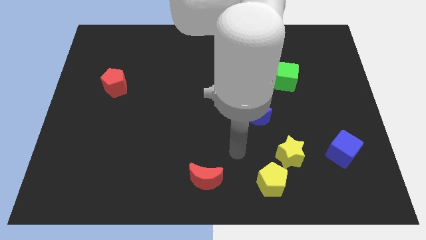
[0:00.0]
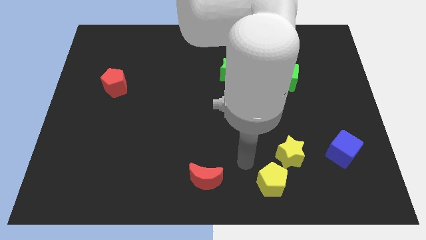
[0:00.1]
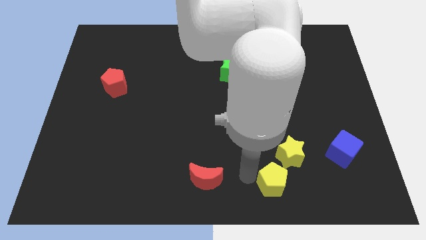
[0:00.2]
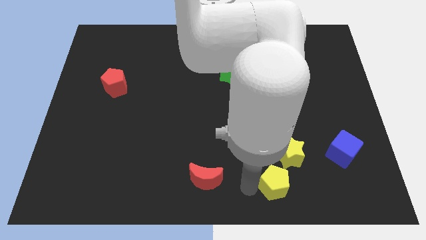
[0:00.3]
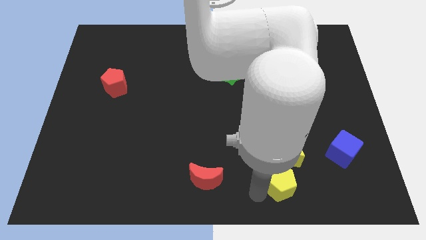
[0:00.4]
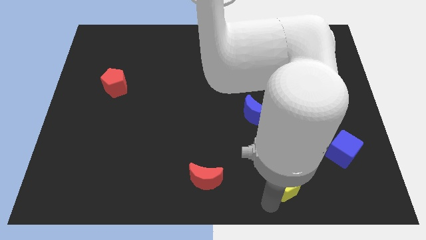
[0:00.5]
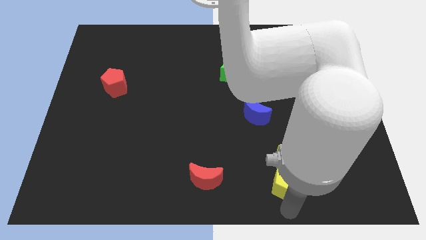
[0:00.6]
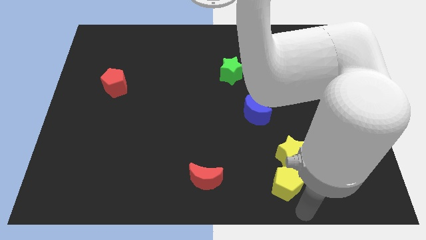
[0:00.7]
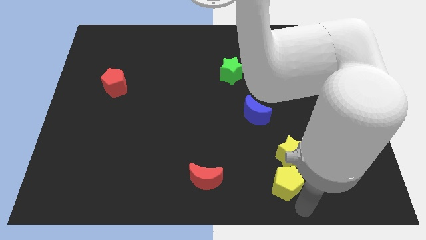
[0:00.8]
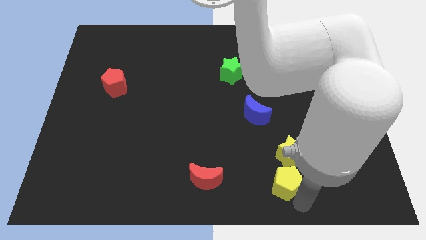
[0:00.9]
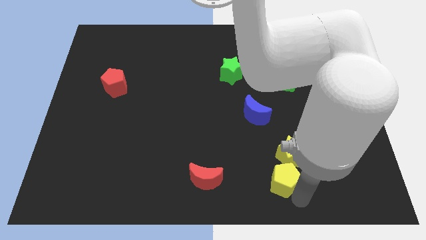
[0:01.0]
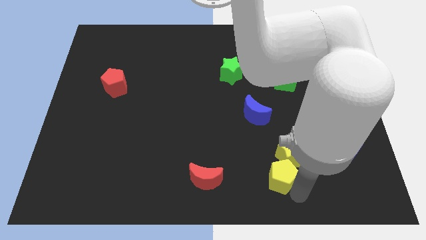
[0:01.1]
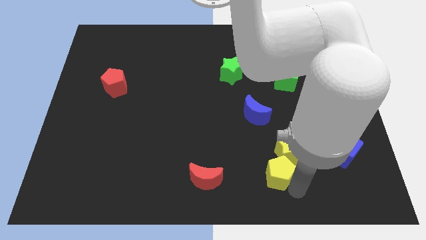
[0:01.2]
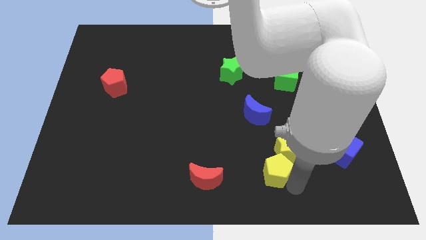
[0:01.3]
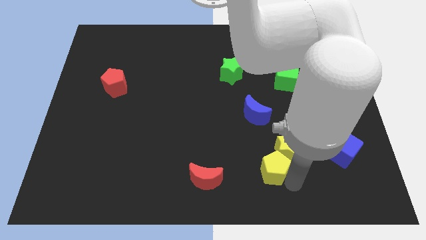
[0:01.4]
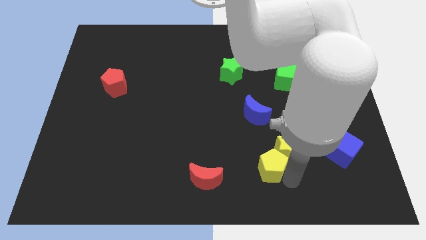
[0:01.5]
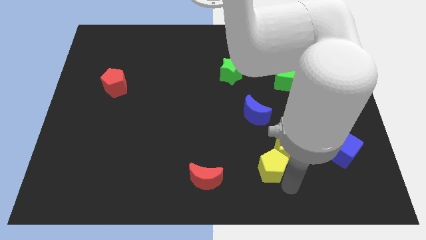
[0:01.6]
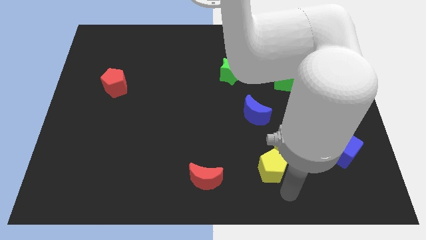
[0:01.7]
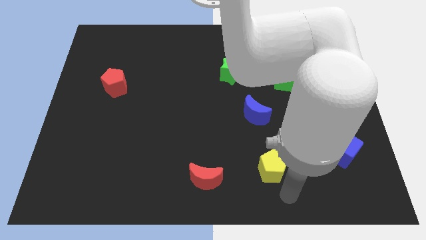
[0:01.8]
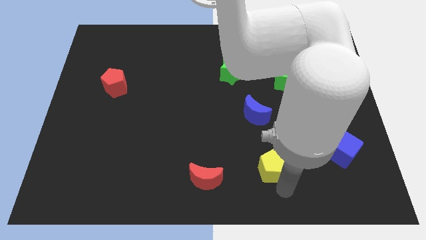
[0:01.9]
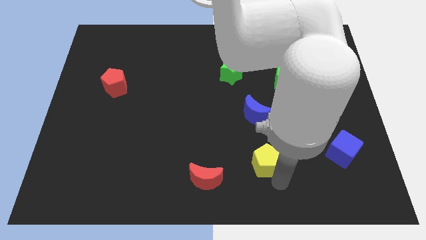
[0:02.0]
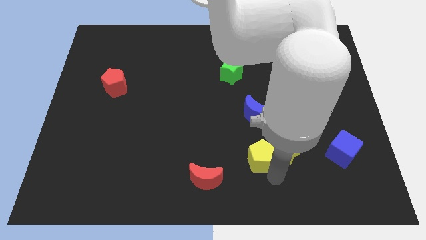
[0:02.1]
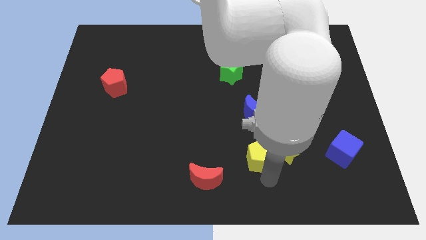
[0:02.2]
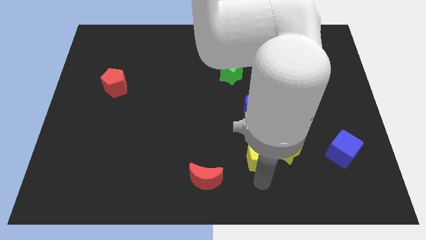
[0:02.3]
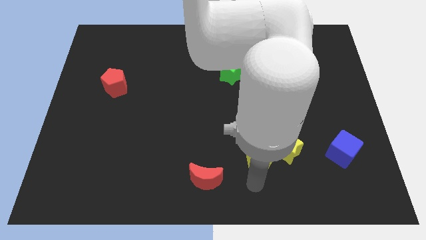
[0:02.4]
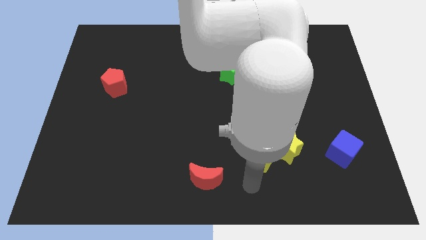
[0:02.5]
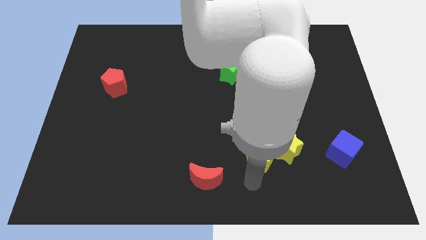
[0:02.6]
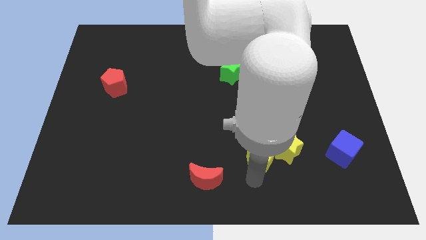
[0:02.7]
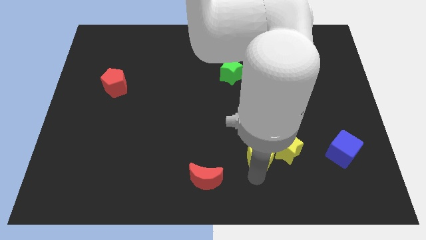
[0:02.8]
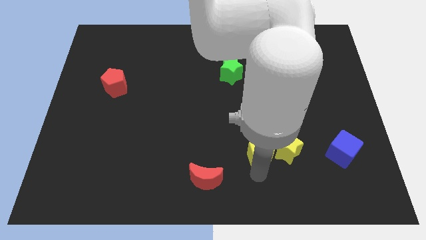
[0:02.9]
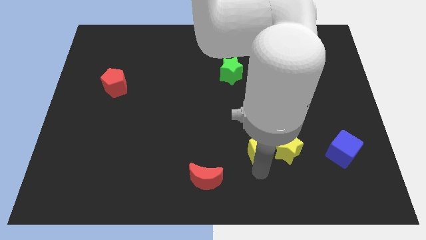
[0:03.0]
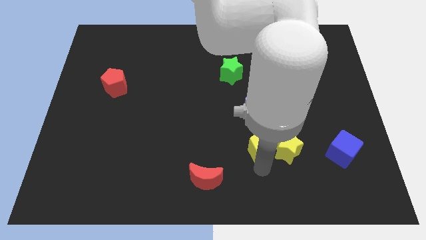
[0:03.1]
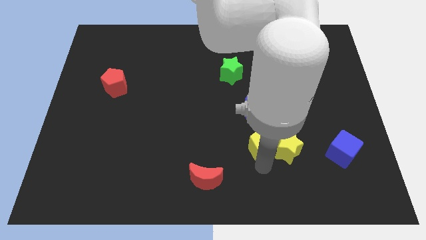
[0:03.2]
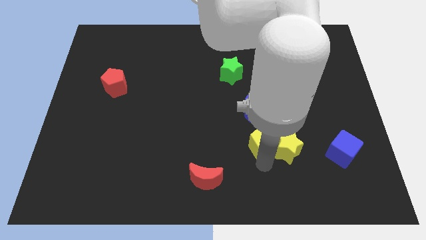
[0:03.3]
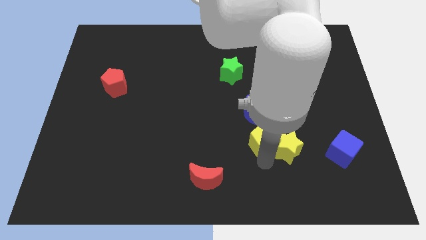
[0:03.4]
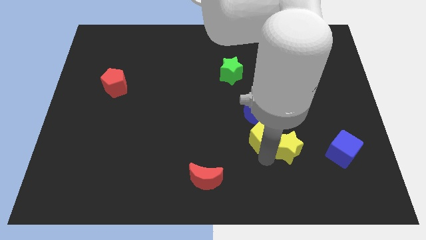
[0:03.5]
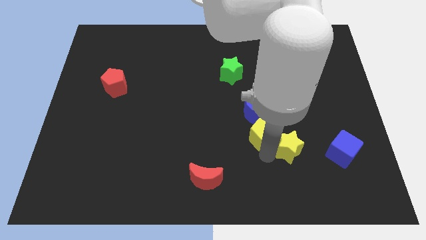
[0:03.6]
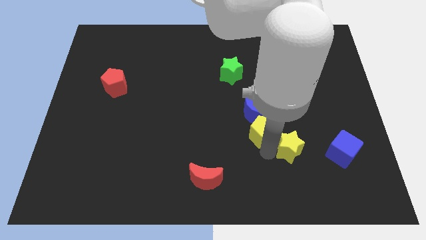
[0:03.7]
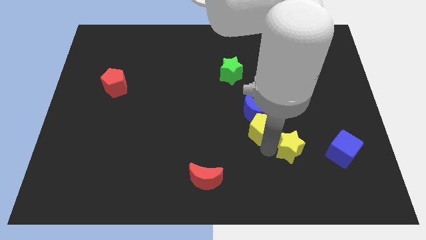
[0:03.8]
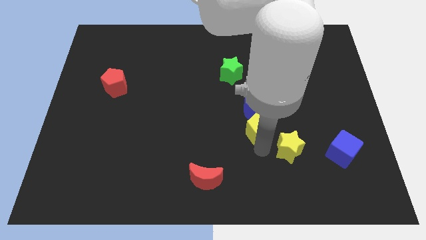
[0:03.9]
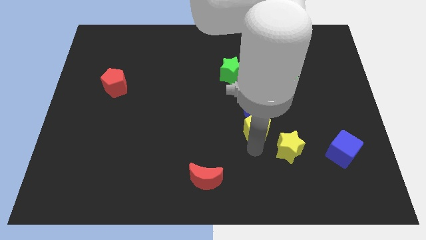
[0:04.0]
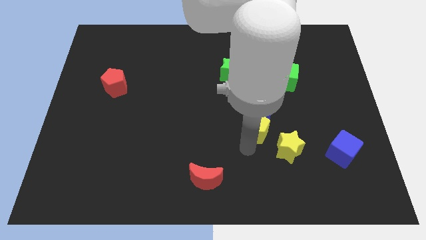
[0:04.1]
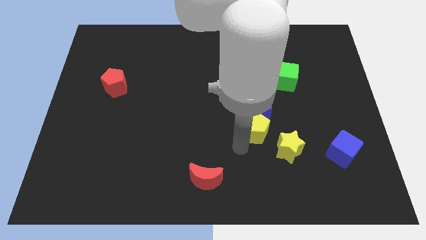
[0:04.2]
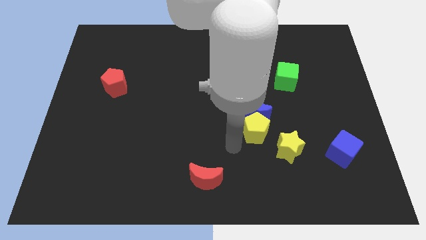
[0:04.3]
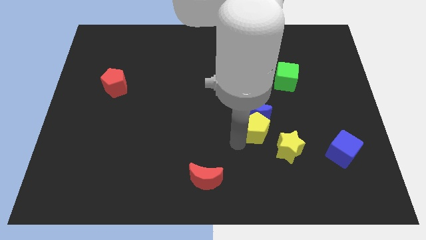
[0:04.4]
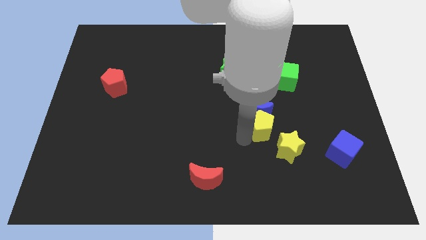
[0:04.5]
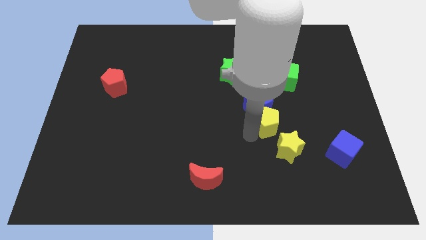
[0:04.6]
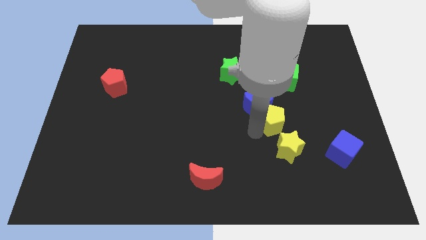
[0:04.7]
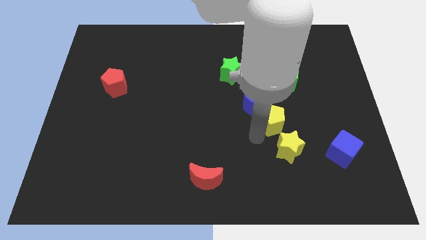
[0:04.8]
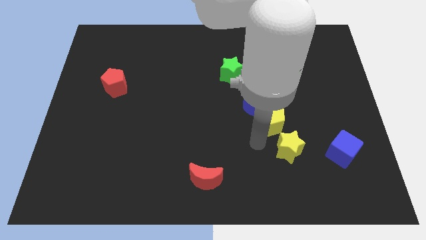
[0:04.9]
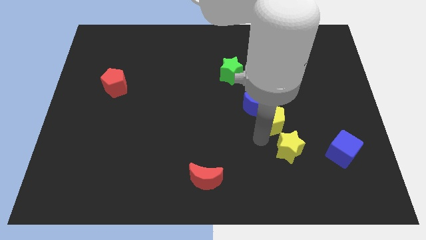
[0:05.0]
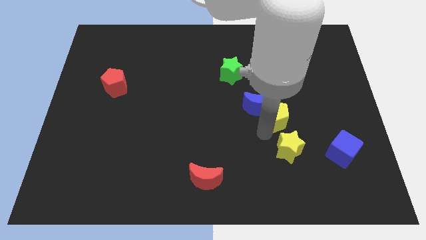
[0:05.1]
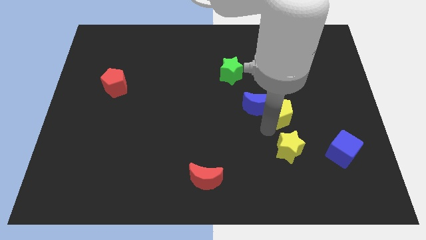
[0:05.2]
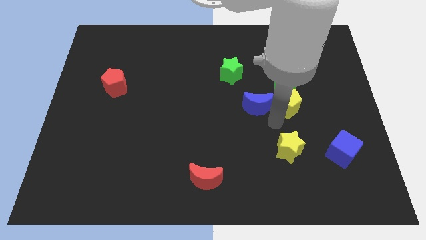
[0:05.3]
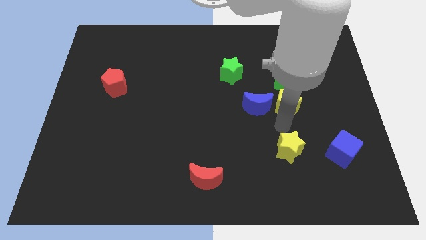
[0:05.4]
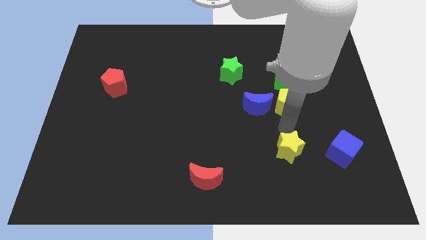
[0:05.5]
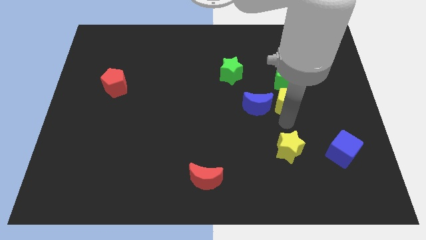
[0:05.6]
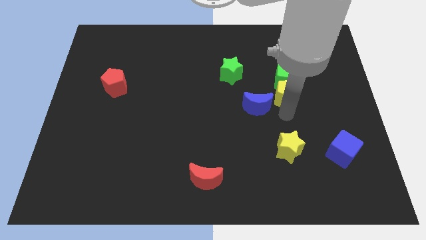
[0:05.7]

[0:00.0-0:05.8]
push the yellow pentagon to the green cube

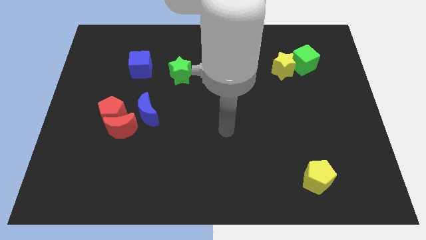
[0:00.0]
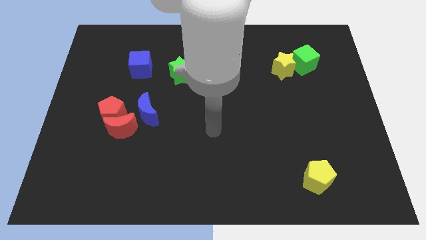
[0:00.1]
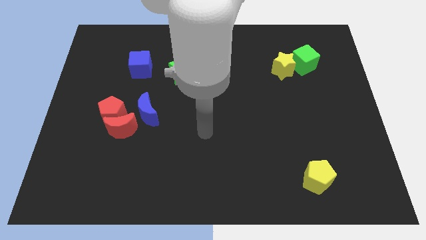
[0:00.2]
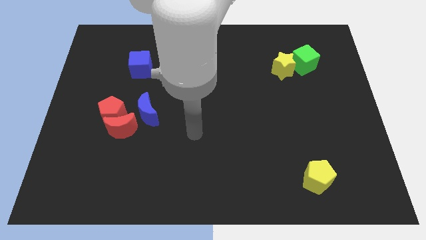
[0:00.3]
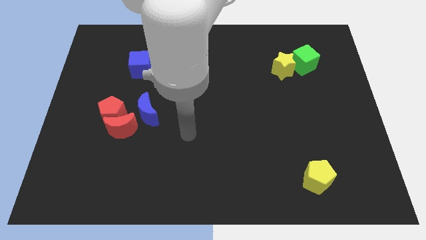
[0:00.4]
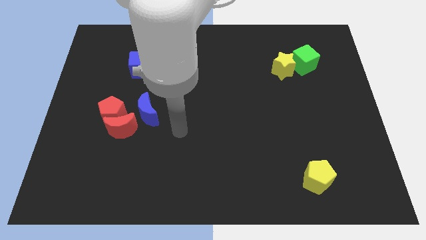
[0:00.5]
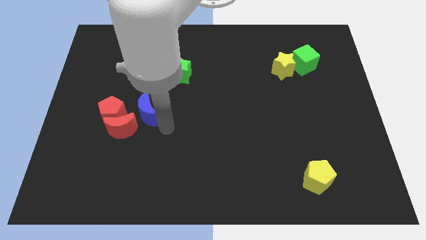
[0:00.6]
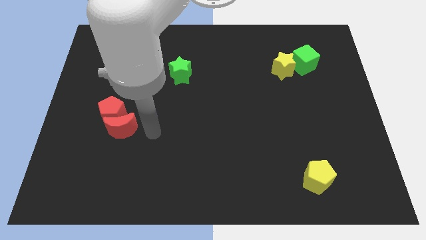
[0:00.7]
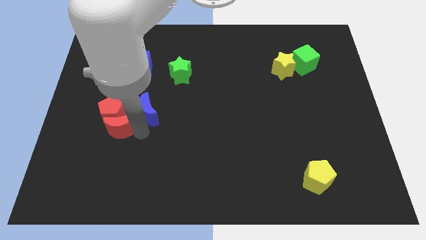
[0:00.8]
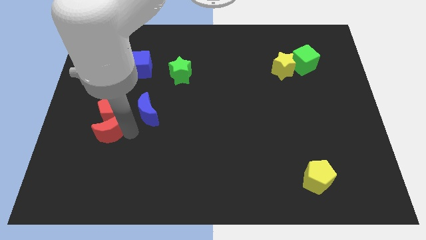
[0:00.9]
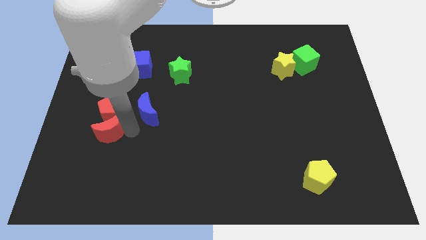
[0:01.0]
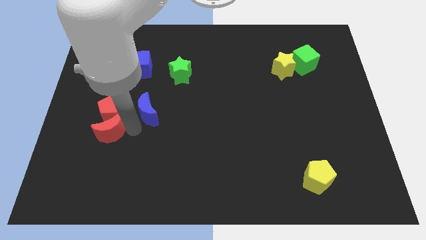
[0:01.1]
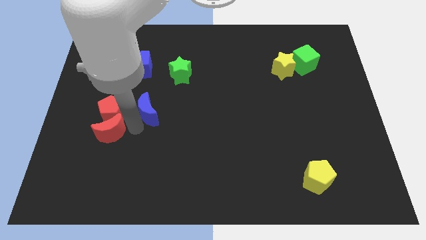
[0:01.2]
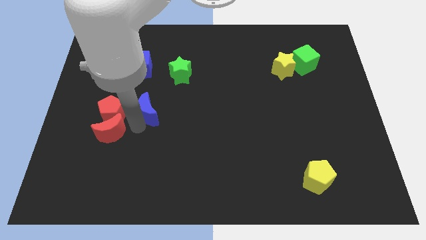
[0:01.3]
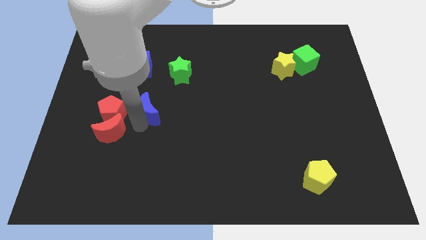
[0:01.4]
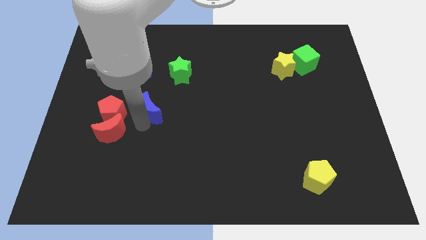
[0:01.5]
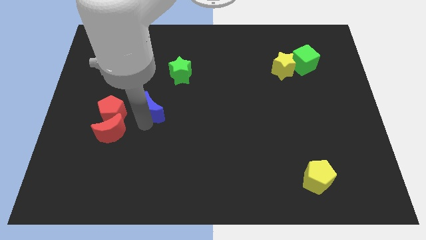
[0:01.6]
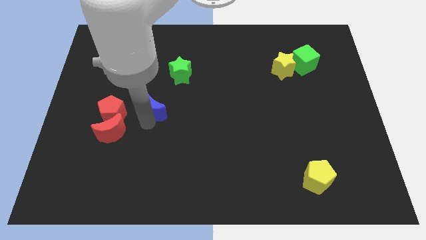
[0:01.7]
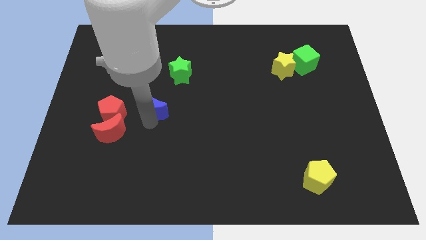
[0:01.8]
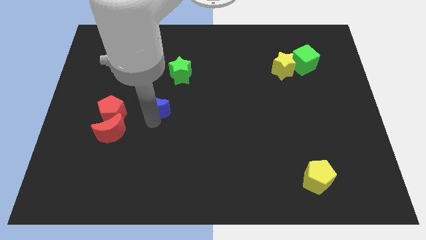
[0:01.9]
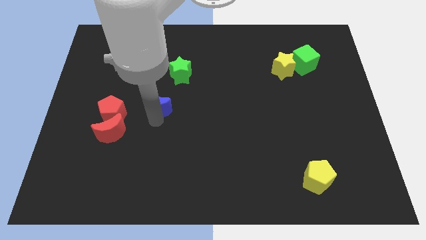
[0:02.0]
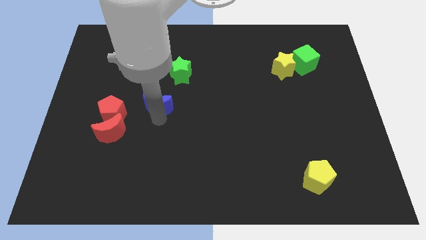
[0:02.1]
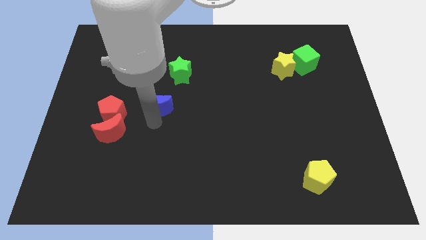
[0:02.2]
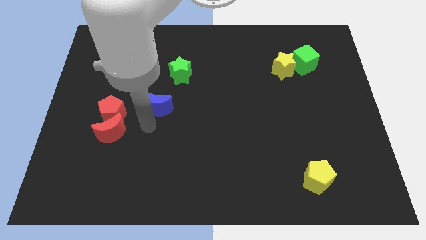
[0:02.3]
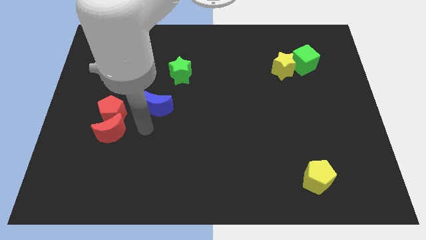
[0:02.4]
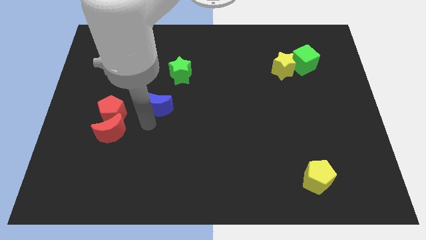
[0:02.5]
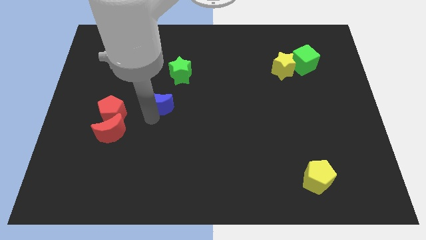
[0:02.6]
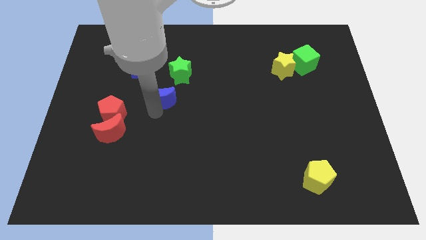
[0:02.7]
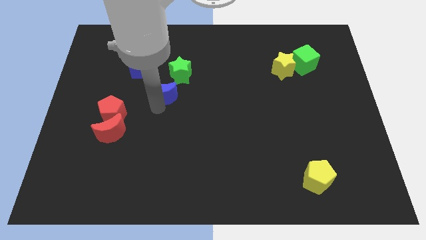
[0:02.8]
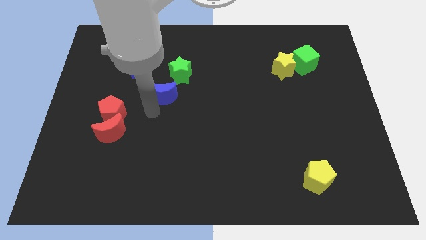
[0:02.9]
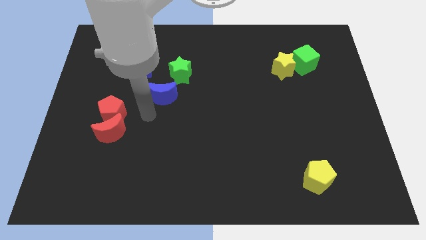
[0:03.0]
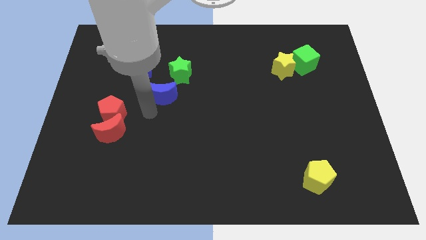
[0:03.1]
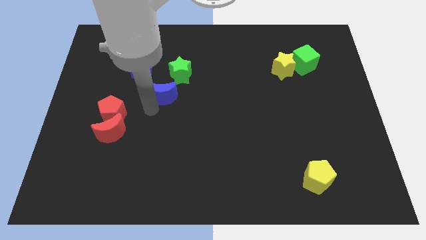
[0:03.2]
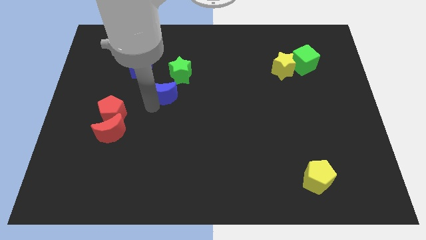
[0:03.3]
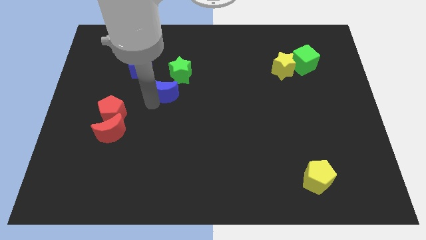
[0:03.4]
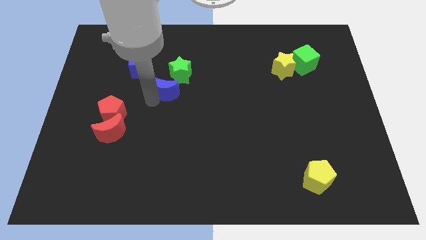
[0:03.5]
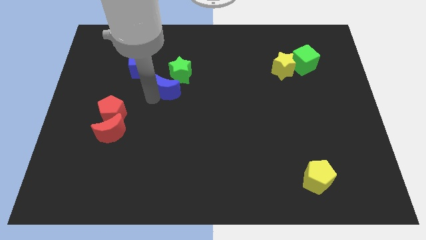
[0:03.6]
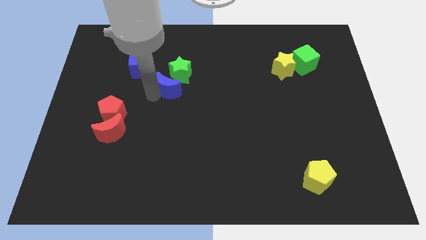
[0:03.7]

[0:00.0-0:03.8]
push the blue moon close to the green star
